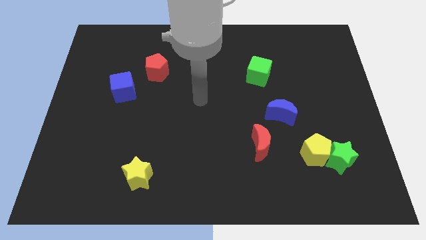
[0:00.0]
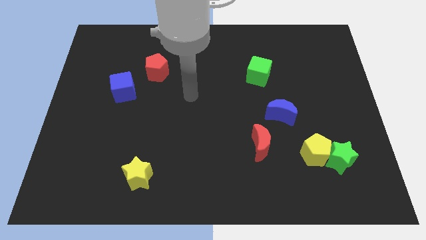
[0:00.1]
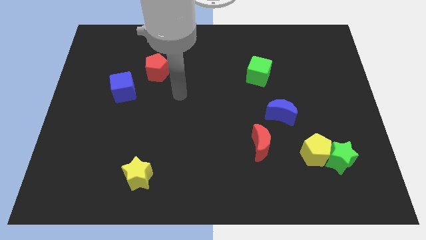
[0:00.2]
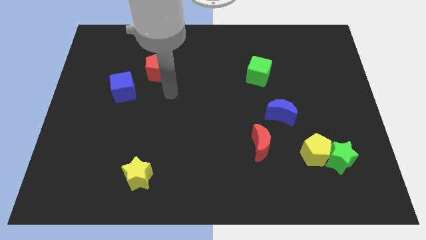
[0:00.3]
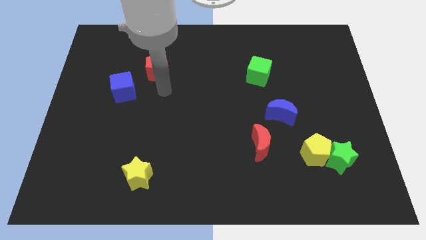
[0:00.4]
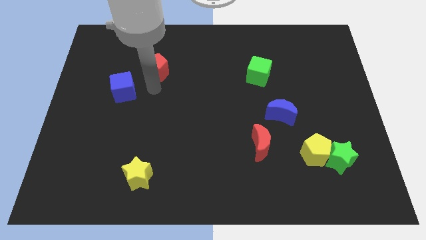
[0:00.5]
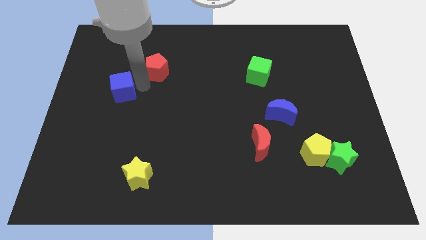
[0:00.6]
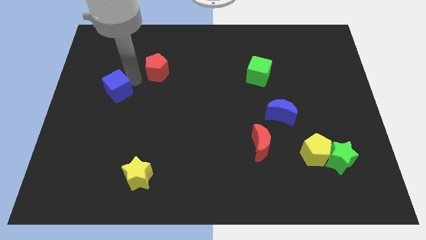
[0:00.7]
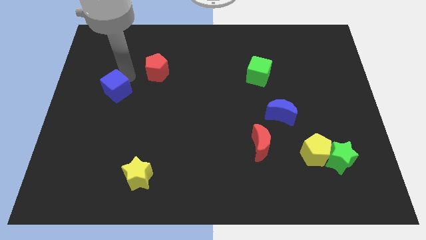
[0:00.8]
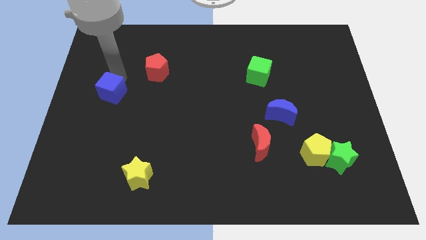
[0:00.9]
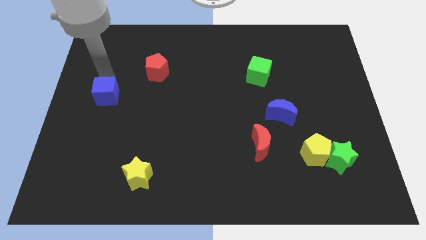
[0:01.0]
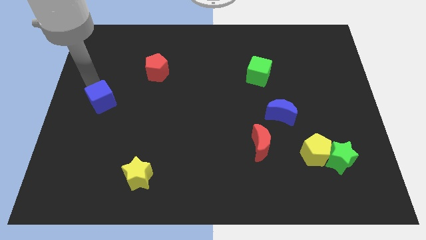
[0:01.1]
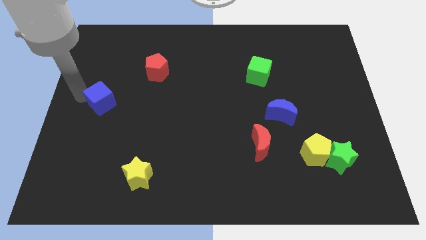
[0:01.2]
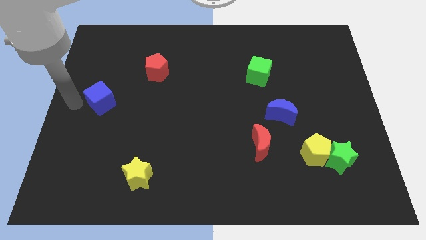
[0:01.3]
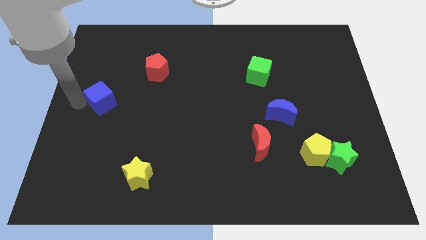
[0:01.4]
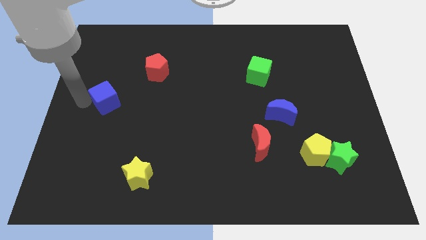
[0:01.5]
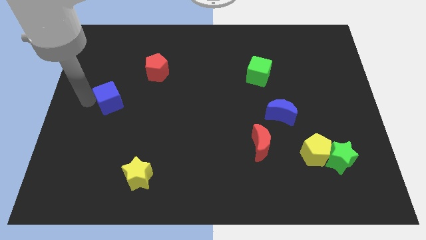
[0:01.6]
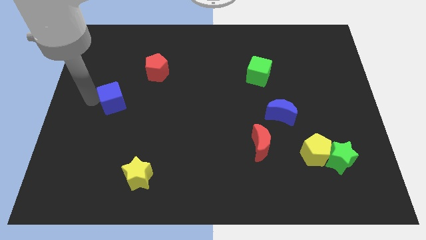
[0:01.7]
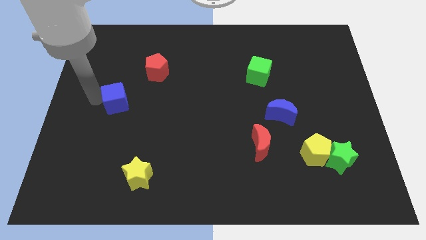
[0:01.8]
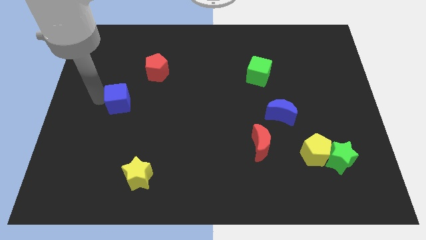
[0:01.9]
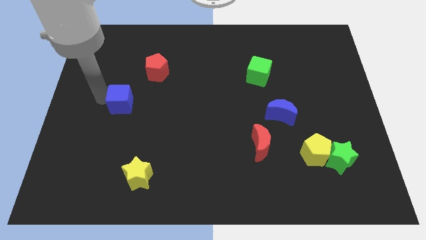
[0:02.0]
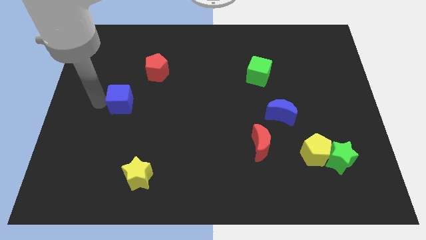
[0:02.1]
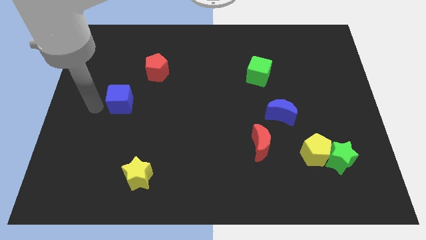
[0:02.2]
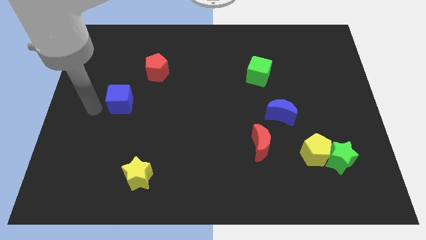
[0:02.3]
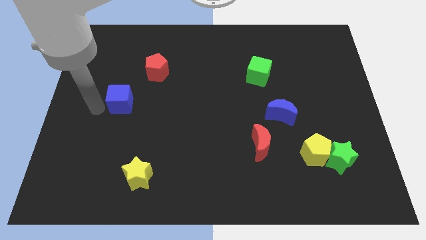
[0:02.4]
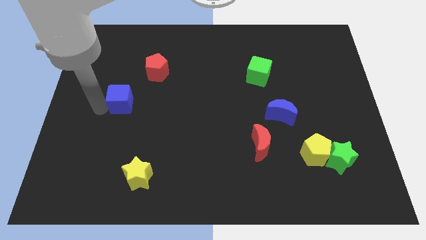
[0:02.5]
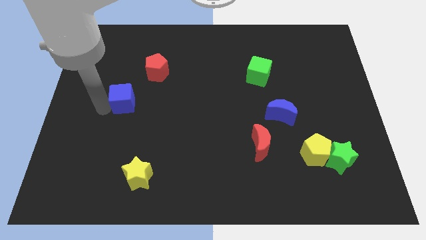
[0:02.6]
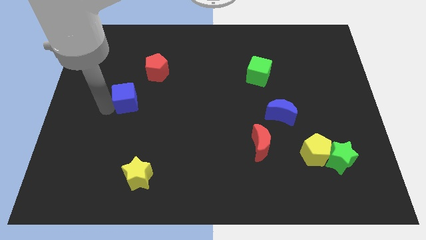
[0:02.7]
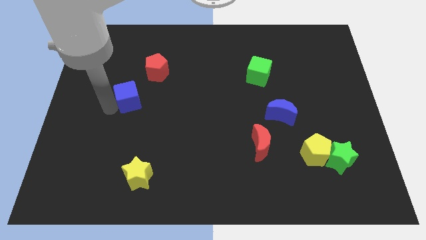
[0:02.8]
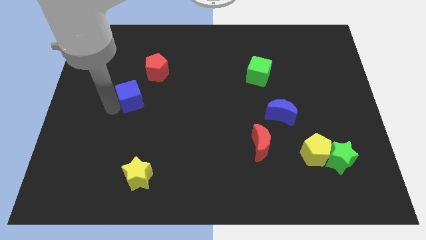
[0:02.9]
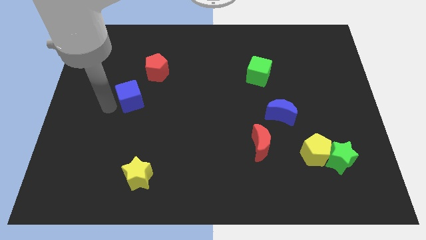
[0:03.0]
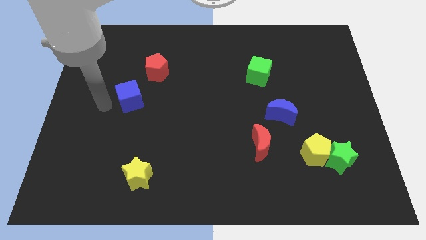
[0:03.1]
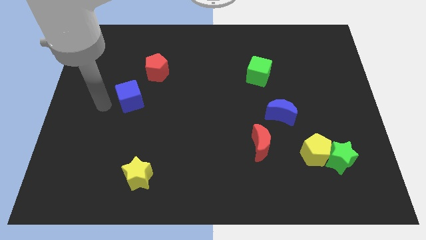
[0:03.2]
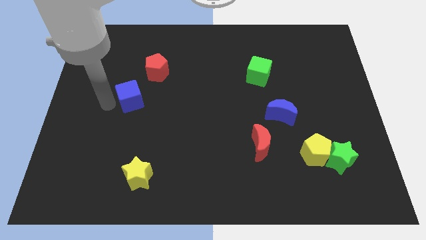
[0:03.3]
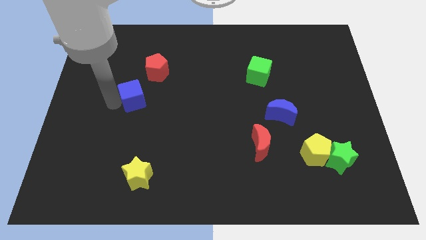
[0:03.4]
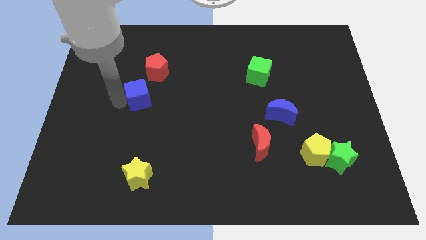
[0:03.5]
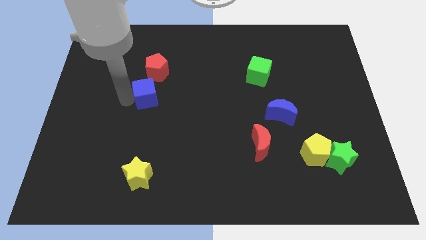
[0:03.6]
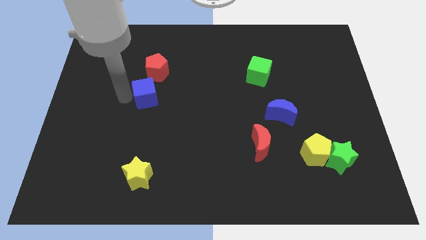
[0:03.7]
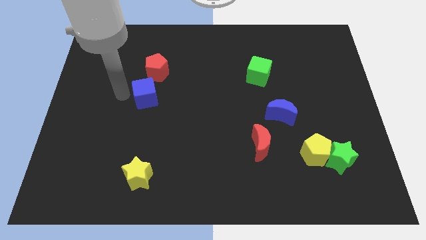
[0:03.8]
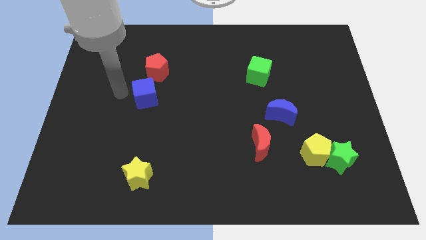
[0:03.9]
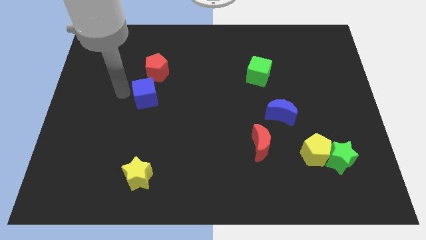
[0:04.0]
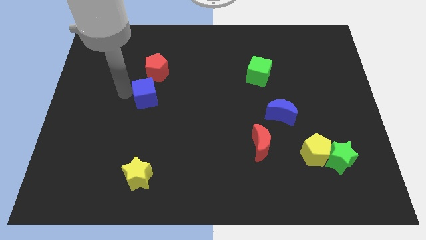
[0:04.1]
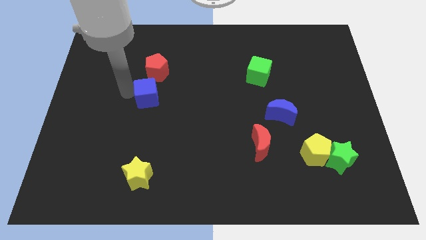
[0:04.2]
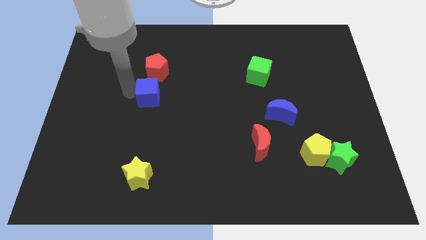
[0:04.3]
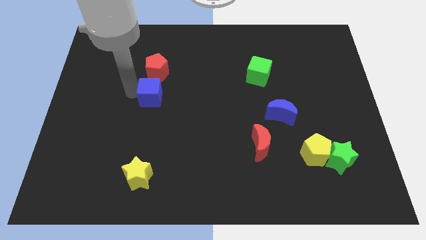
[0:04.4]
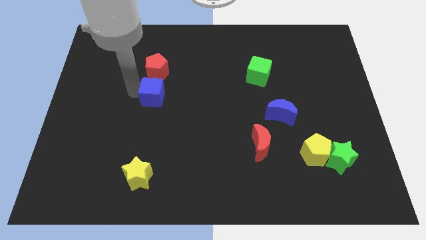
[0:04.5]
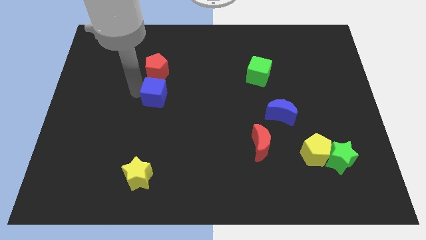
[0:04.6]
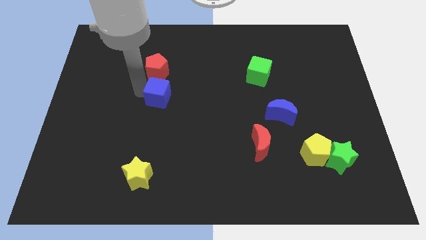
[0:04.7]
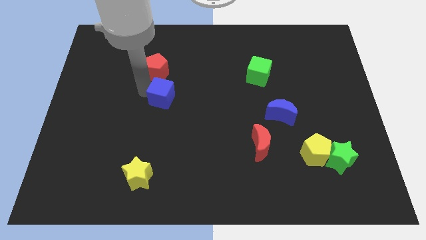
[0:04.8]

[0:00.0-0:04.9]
push the blue cube to the center

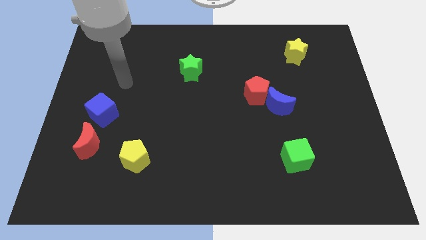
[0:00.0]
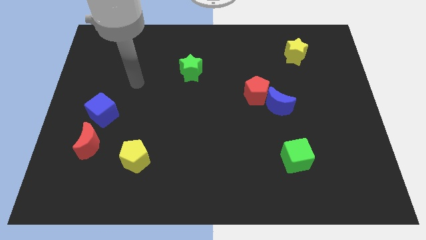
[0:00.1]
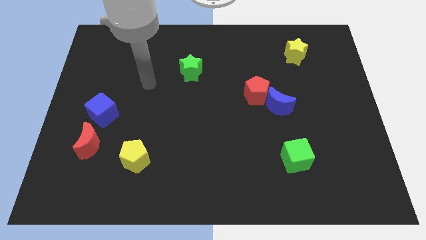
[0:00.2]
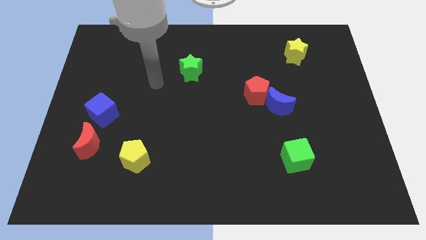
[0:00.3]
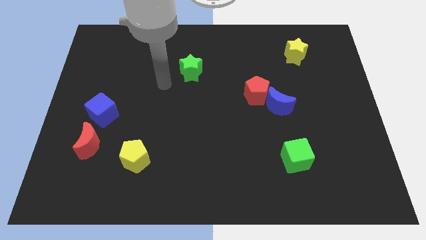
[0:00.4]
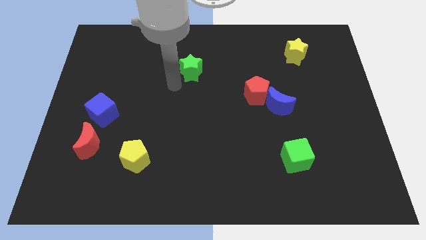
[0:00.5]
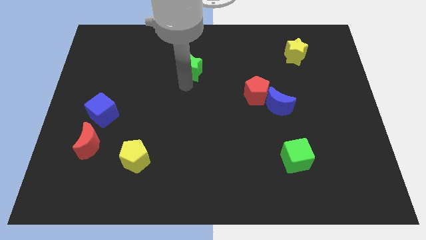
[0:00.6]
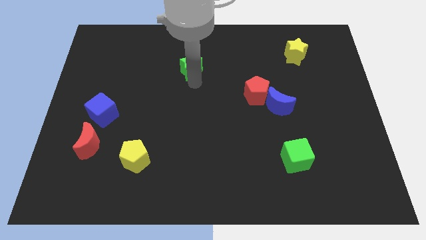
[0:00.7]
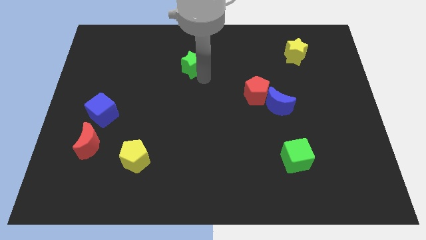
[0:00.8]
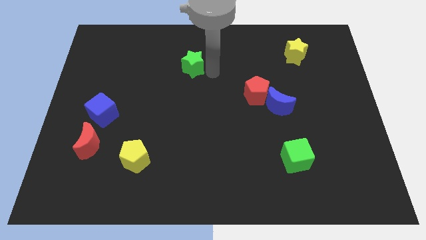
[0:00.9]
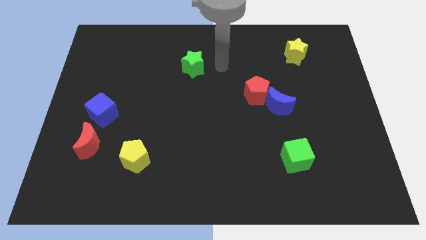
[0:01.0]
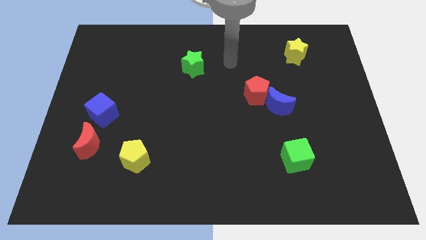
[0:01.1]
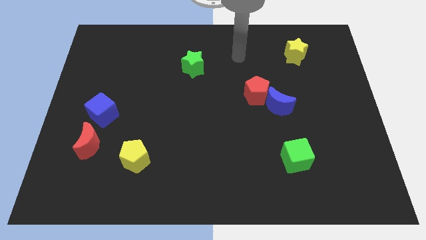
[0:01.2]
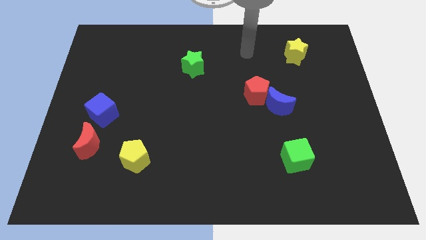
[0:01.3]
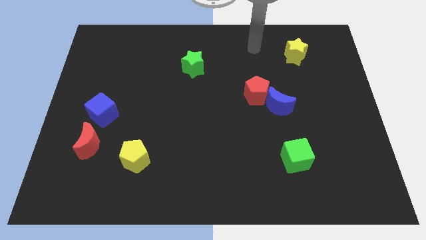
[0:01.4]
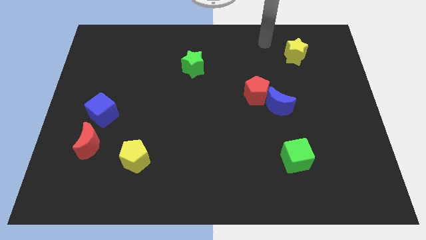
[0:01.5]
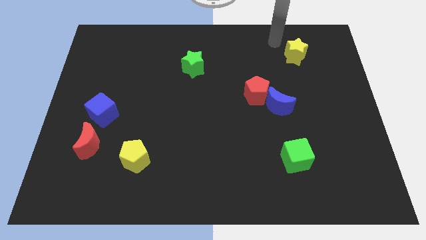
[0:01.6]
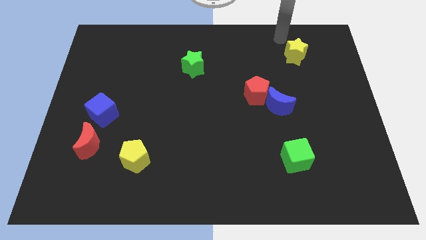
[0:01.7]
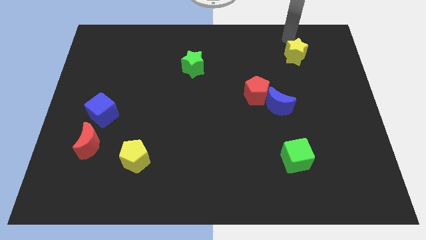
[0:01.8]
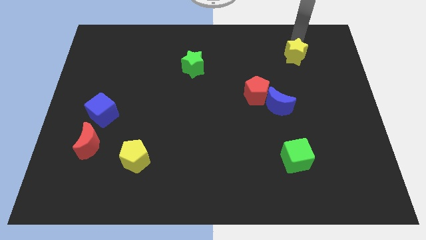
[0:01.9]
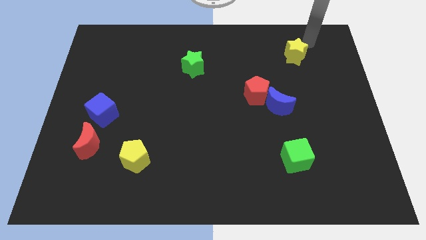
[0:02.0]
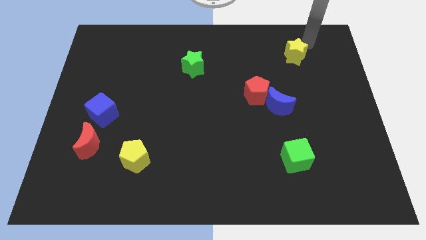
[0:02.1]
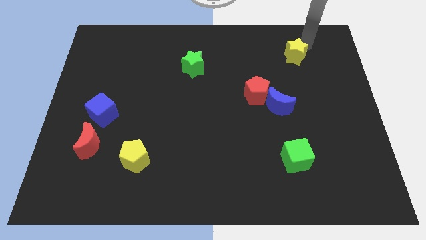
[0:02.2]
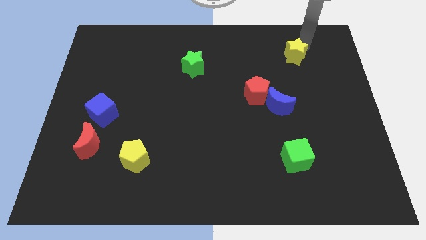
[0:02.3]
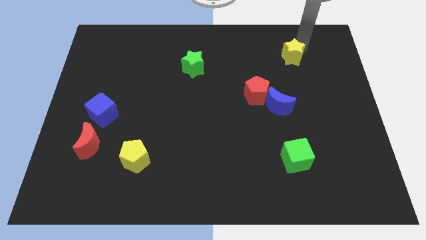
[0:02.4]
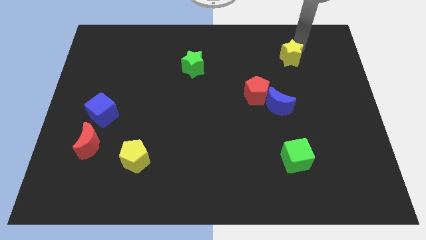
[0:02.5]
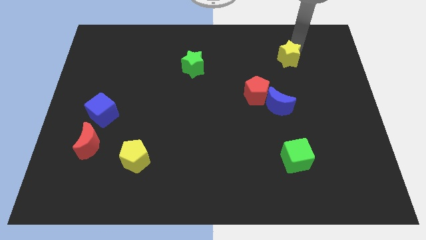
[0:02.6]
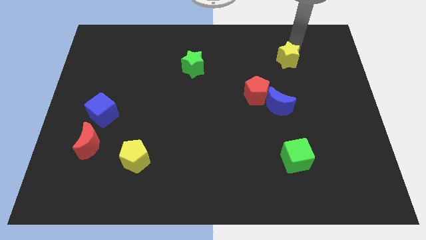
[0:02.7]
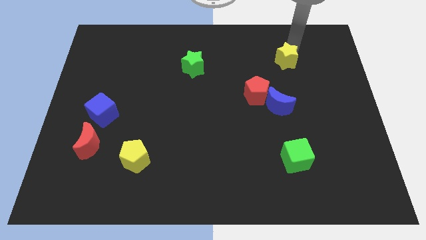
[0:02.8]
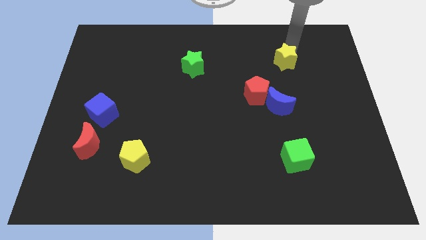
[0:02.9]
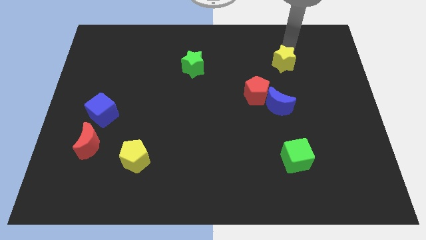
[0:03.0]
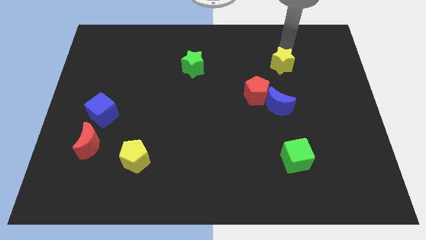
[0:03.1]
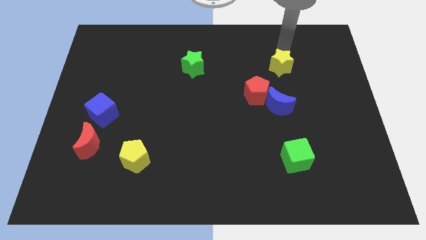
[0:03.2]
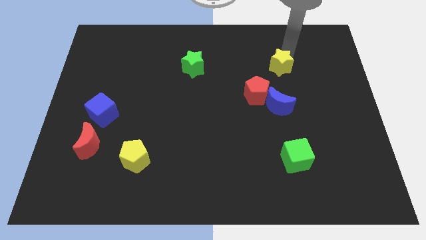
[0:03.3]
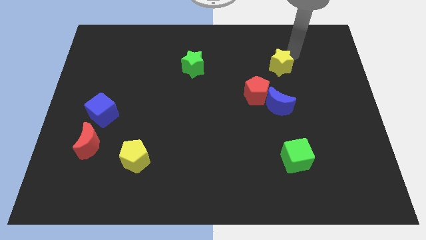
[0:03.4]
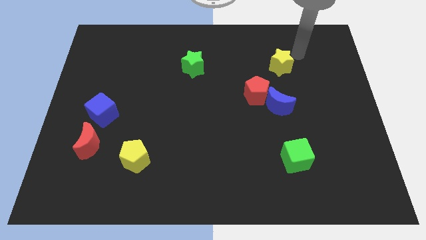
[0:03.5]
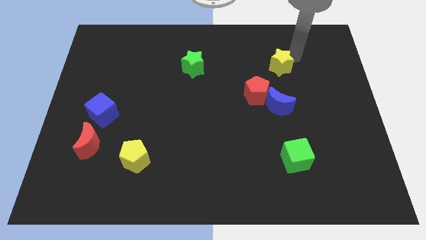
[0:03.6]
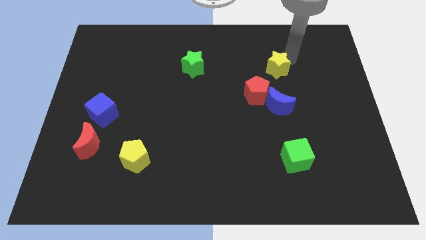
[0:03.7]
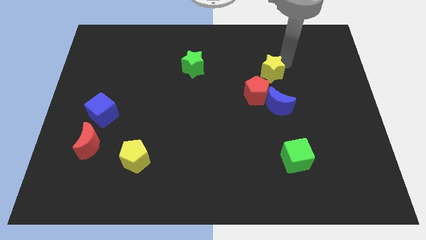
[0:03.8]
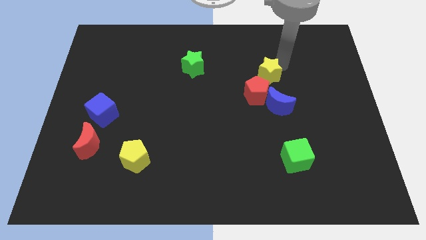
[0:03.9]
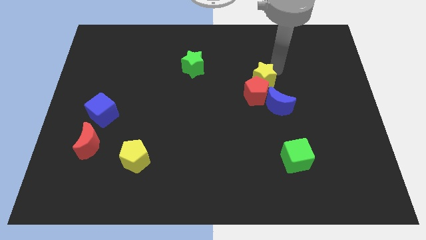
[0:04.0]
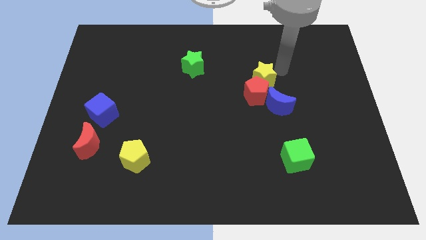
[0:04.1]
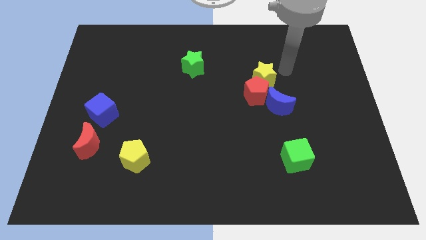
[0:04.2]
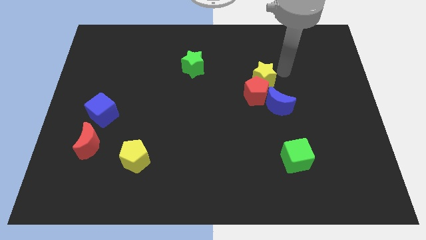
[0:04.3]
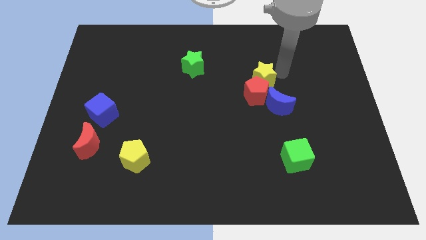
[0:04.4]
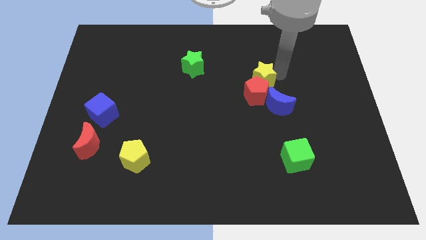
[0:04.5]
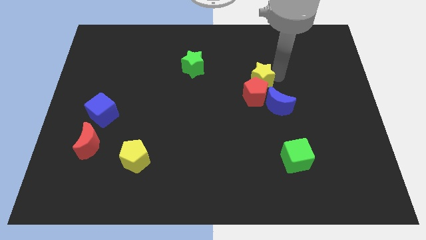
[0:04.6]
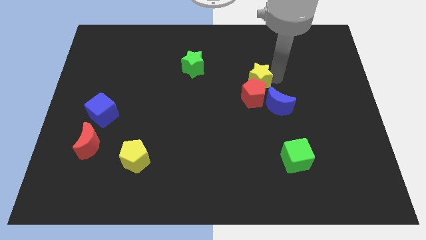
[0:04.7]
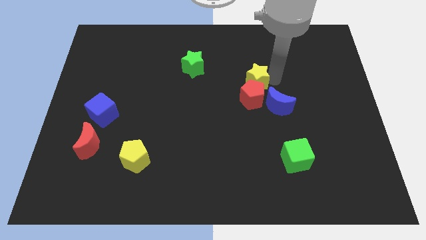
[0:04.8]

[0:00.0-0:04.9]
slide the yellow star to the middle
